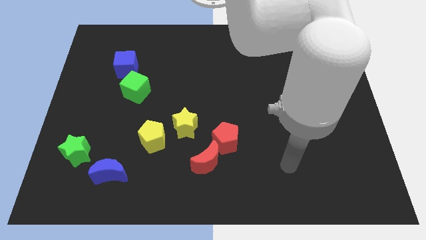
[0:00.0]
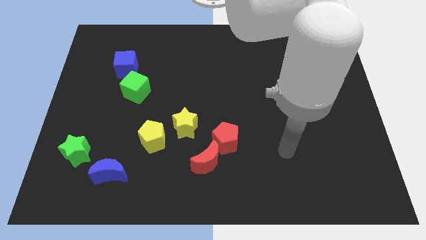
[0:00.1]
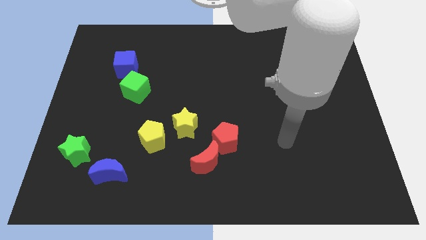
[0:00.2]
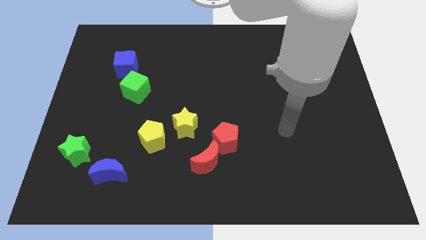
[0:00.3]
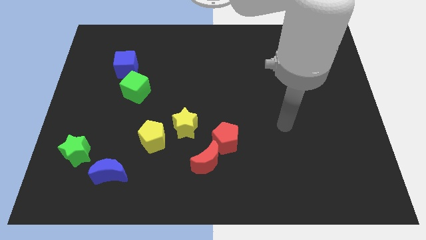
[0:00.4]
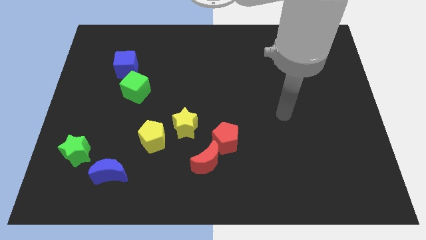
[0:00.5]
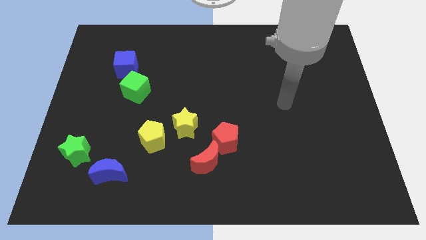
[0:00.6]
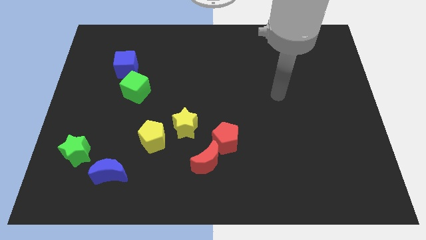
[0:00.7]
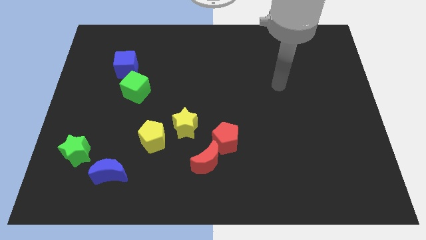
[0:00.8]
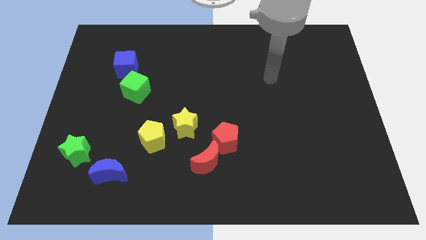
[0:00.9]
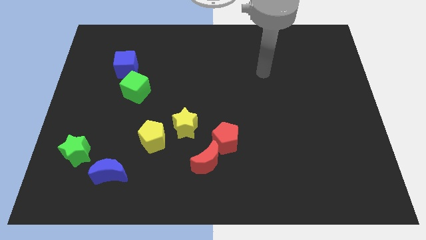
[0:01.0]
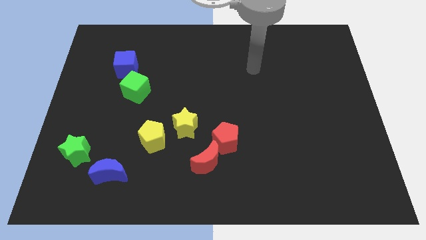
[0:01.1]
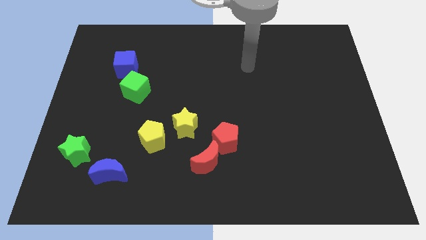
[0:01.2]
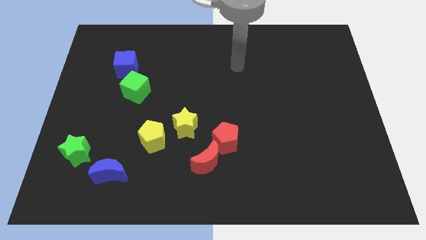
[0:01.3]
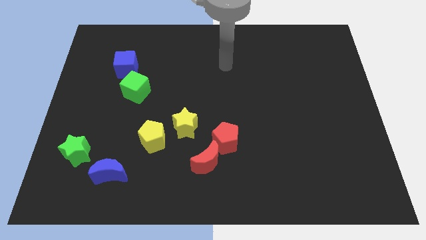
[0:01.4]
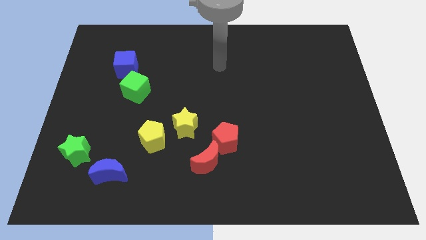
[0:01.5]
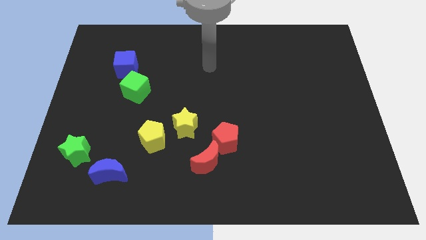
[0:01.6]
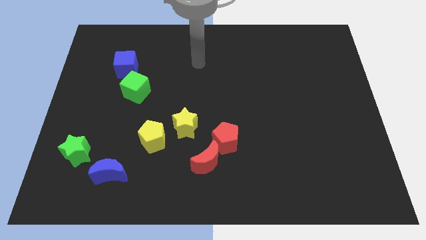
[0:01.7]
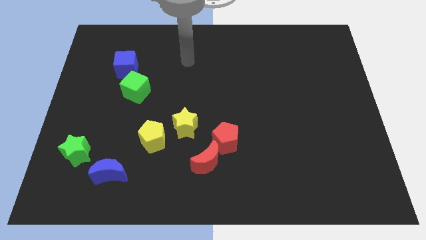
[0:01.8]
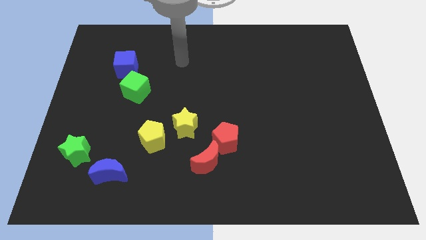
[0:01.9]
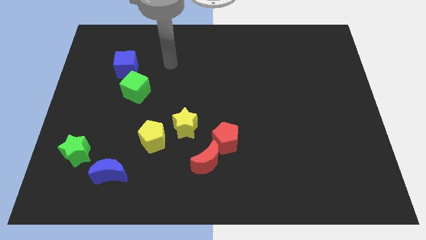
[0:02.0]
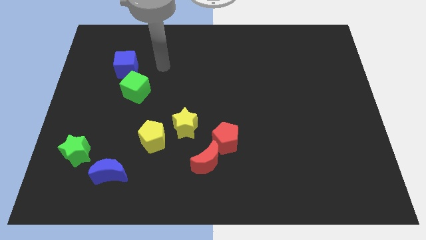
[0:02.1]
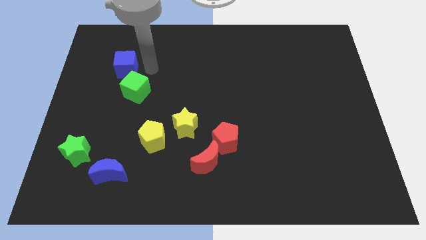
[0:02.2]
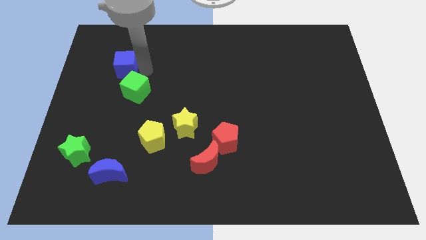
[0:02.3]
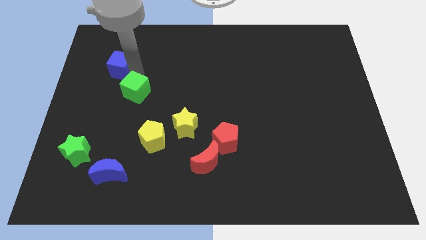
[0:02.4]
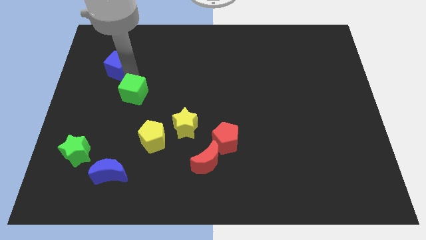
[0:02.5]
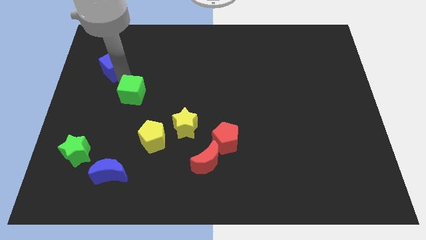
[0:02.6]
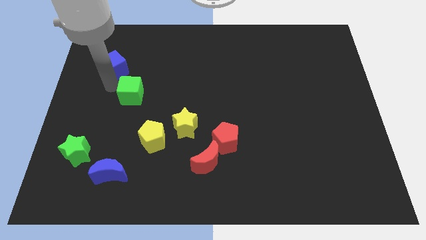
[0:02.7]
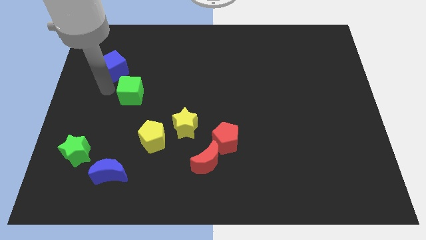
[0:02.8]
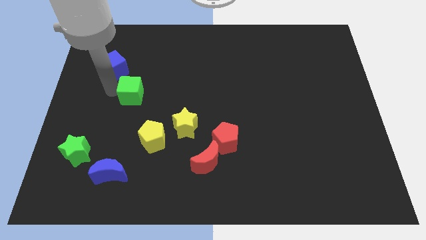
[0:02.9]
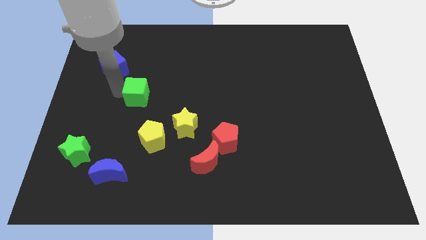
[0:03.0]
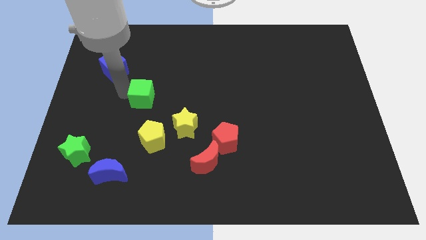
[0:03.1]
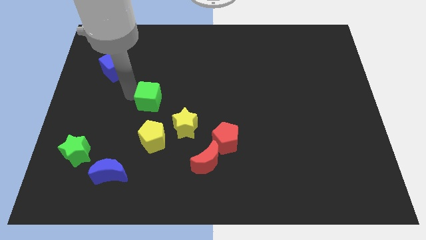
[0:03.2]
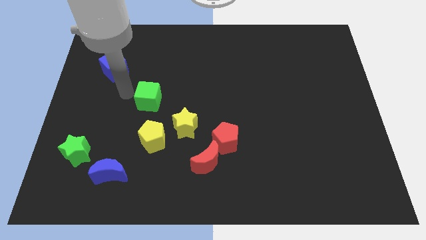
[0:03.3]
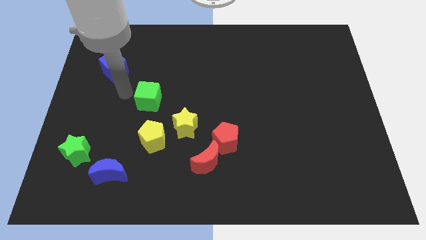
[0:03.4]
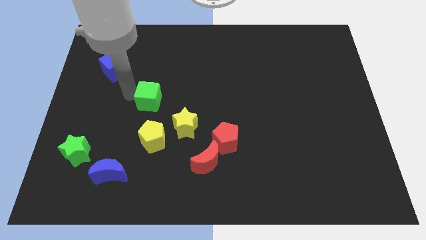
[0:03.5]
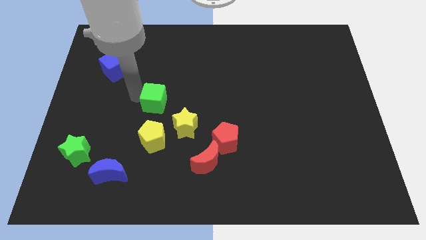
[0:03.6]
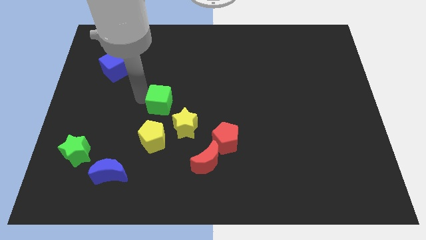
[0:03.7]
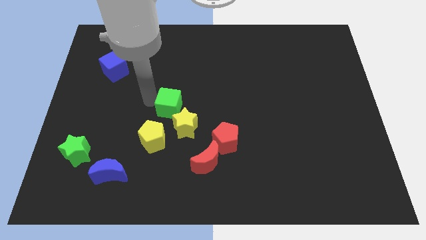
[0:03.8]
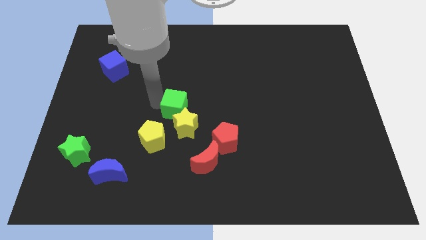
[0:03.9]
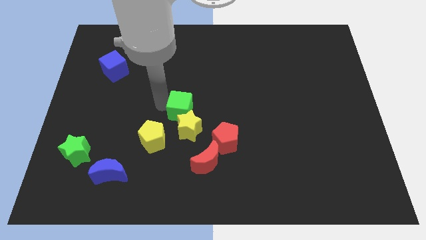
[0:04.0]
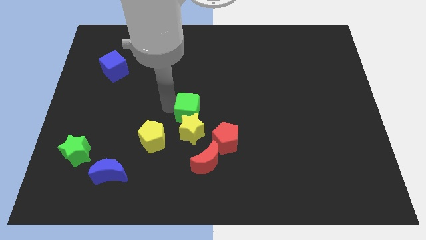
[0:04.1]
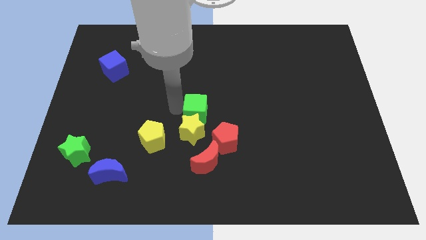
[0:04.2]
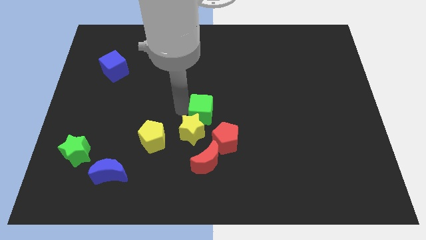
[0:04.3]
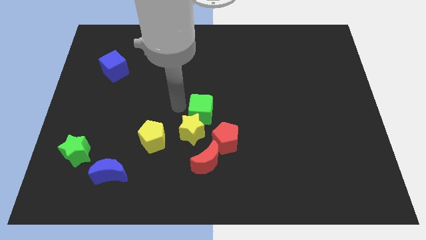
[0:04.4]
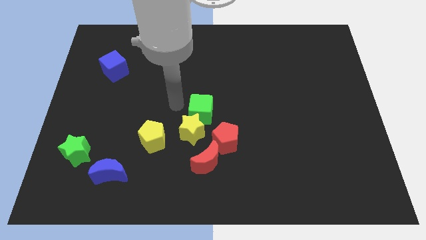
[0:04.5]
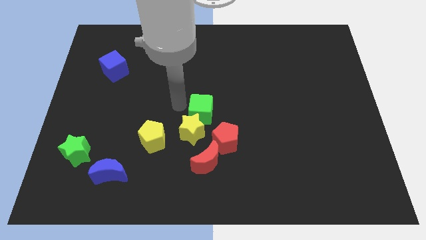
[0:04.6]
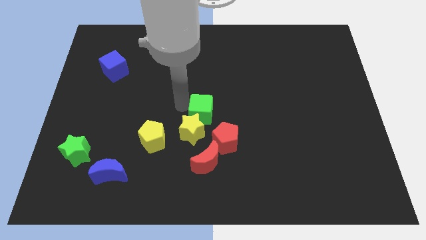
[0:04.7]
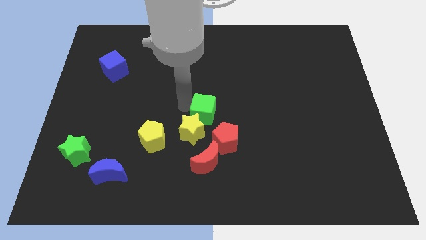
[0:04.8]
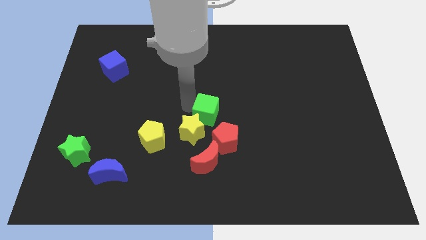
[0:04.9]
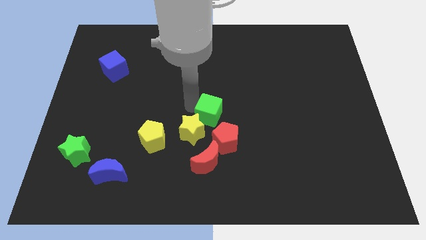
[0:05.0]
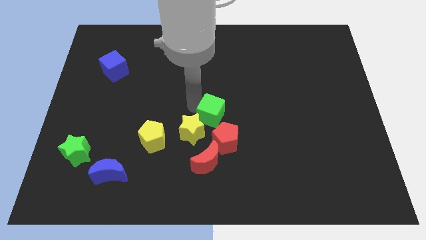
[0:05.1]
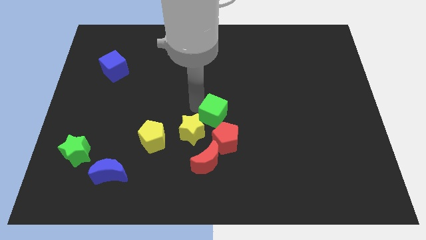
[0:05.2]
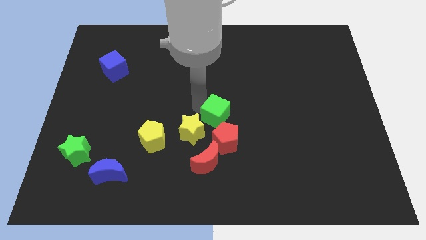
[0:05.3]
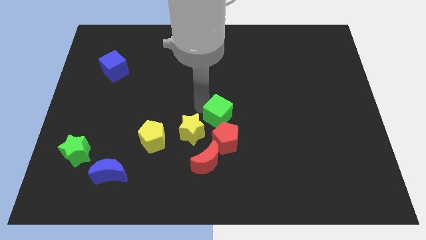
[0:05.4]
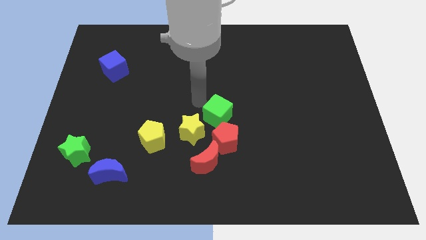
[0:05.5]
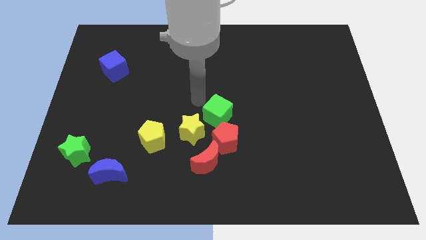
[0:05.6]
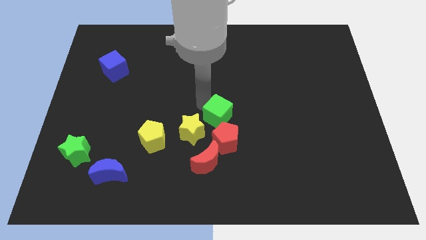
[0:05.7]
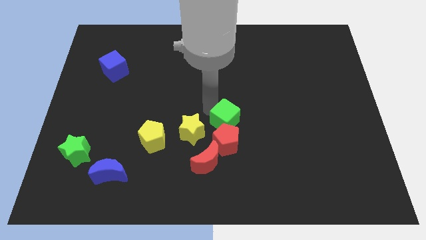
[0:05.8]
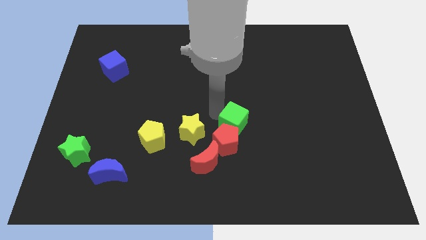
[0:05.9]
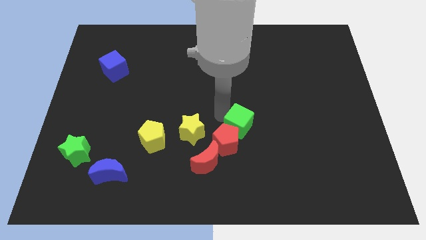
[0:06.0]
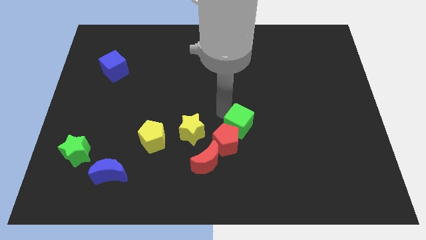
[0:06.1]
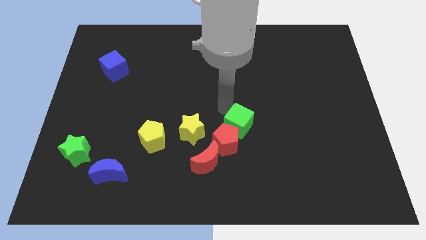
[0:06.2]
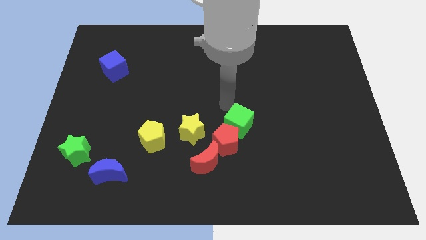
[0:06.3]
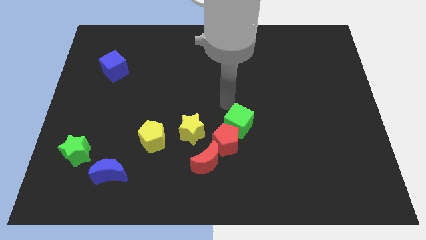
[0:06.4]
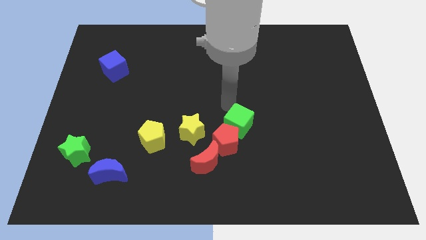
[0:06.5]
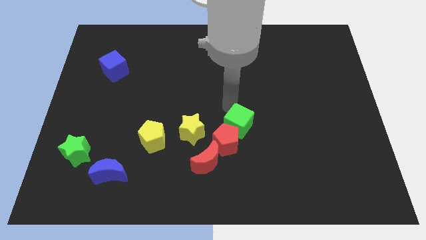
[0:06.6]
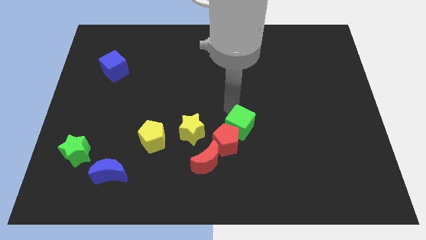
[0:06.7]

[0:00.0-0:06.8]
push the green cube down and right

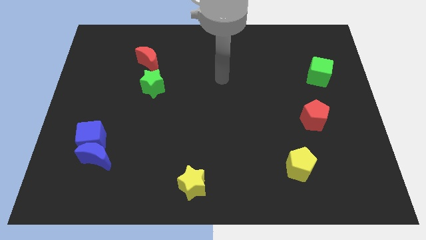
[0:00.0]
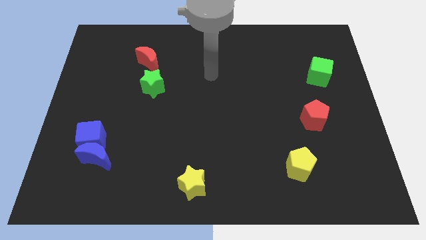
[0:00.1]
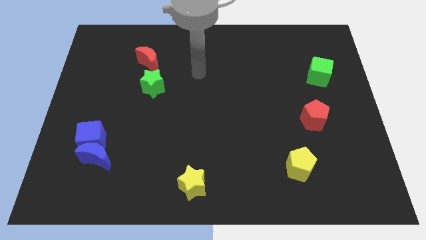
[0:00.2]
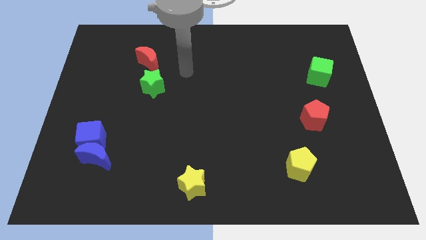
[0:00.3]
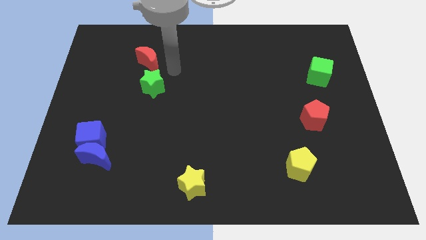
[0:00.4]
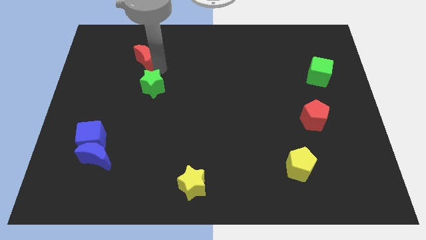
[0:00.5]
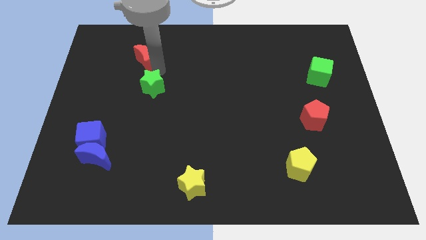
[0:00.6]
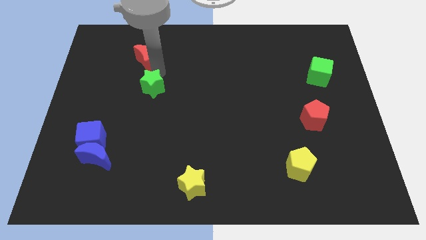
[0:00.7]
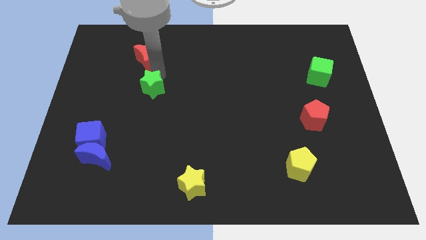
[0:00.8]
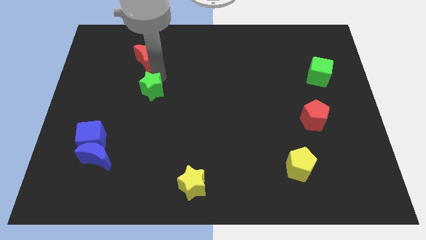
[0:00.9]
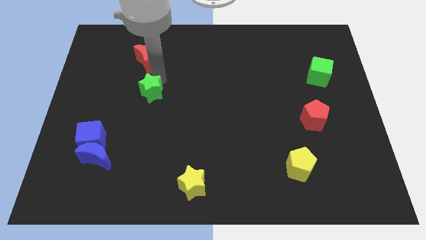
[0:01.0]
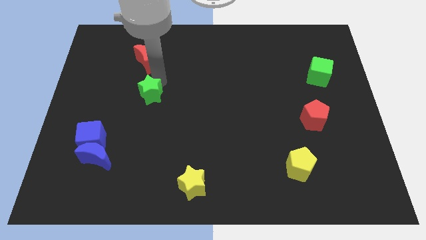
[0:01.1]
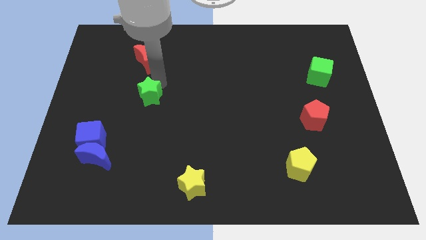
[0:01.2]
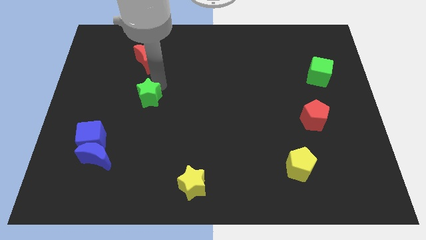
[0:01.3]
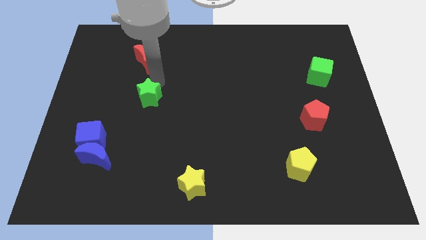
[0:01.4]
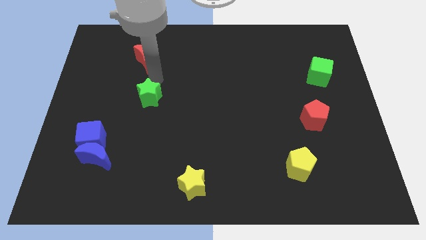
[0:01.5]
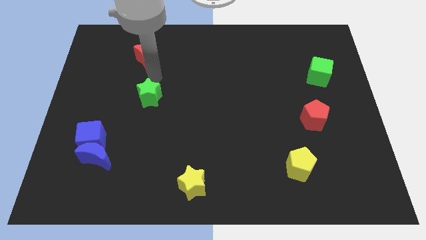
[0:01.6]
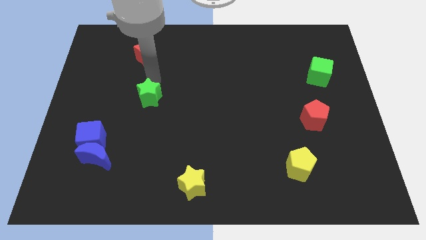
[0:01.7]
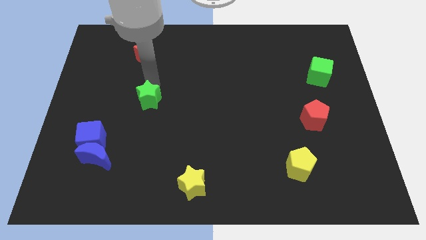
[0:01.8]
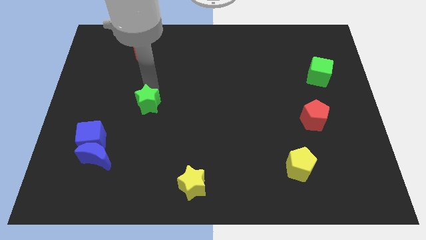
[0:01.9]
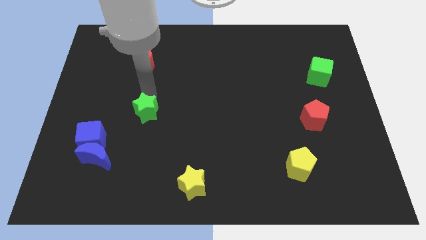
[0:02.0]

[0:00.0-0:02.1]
slightly slide the green star down
